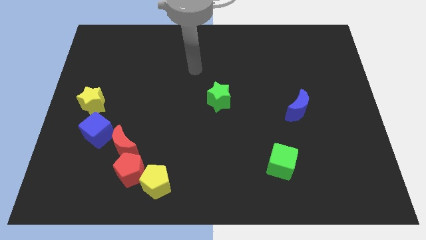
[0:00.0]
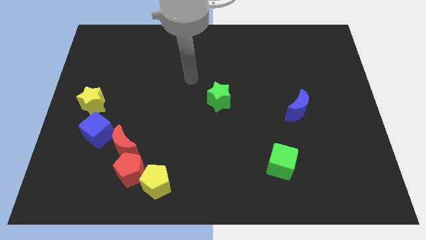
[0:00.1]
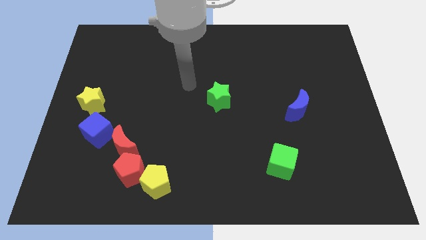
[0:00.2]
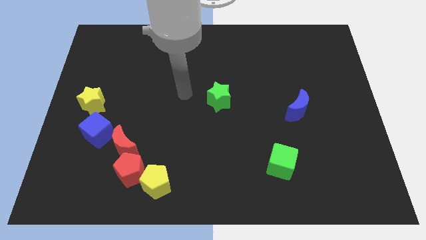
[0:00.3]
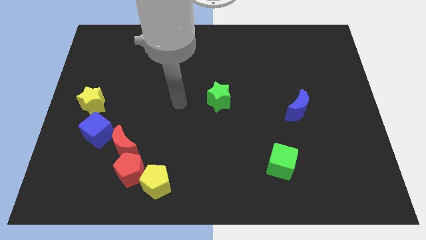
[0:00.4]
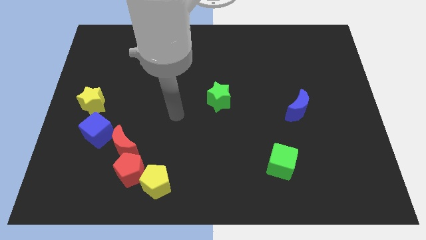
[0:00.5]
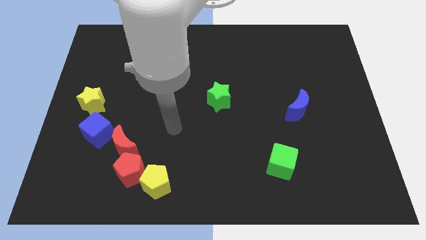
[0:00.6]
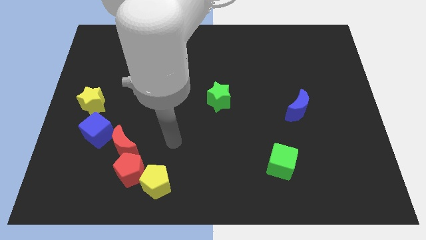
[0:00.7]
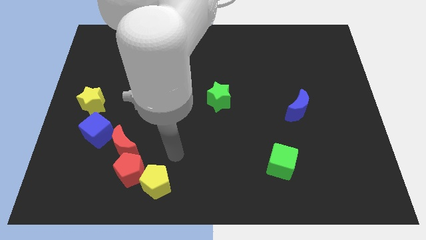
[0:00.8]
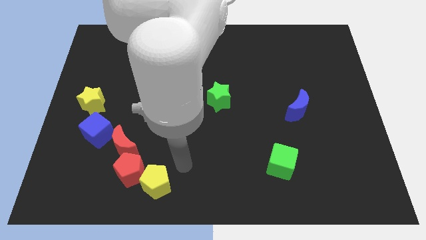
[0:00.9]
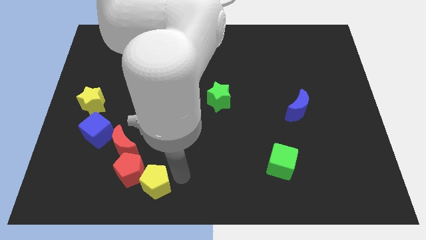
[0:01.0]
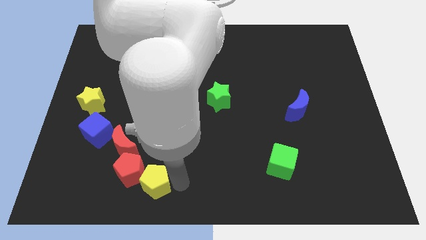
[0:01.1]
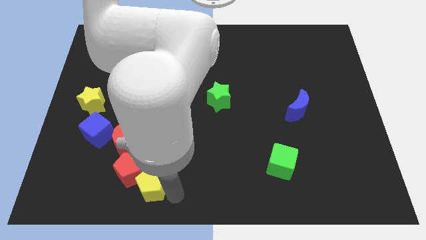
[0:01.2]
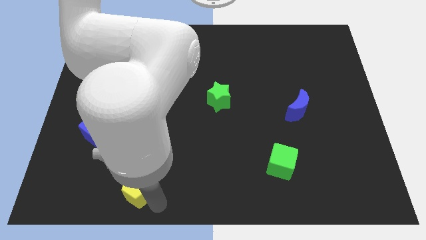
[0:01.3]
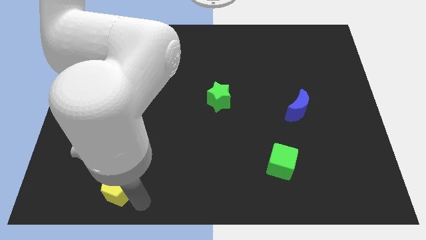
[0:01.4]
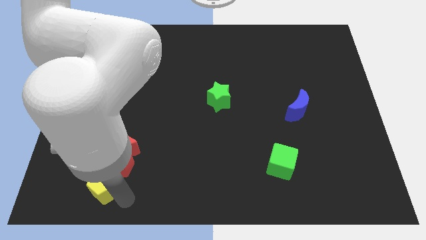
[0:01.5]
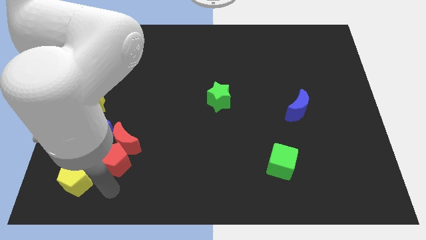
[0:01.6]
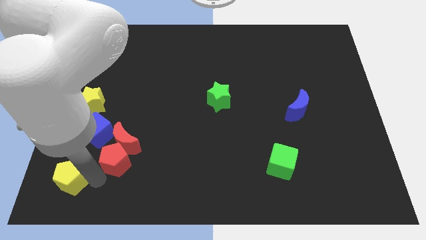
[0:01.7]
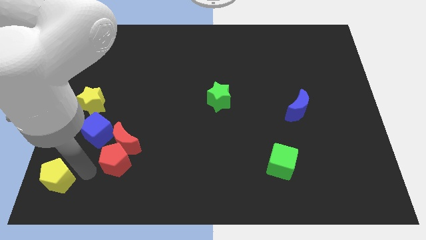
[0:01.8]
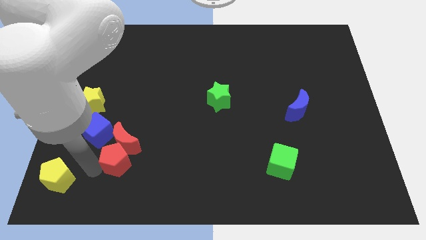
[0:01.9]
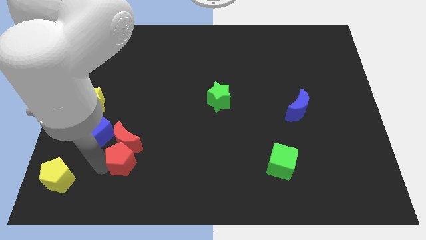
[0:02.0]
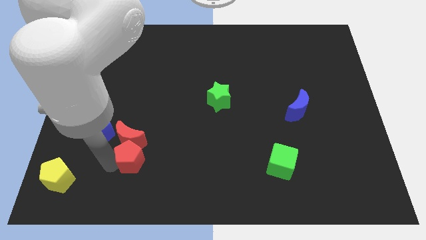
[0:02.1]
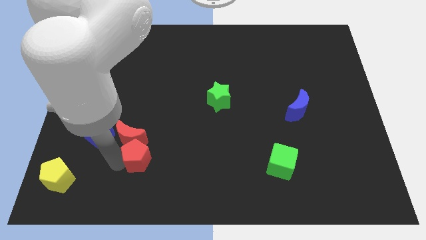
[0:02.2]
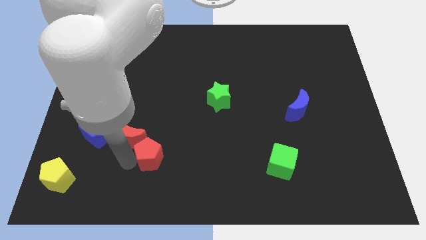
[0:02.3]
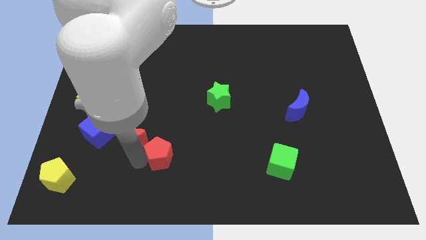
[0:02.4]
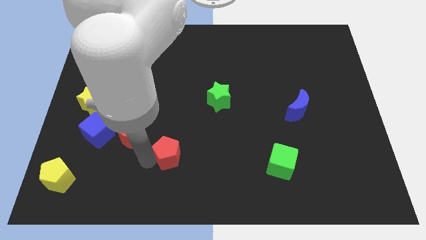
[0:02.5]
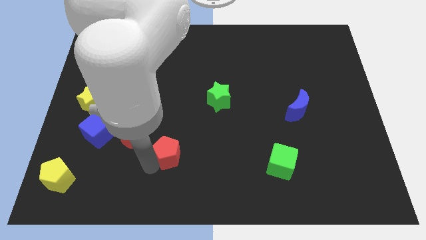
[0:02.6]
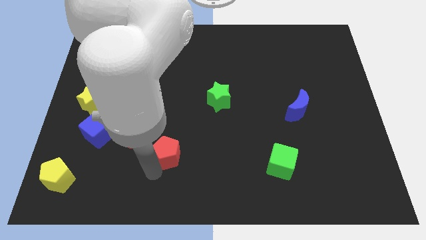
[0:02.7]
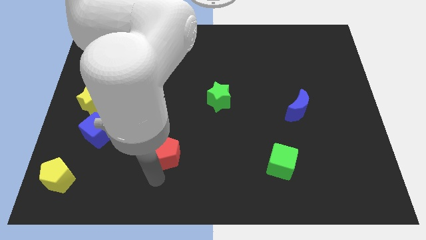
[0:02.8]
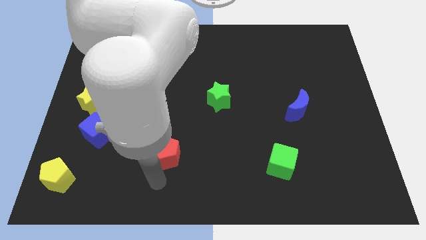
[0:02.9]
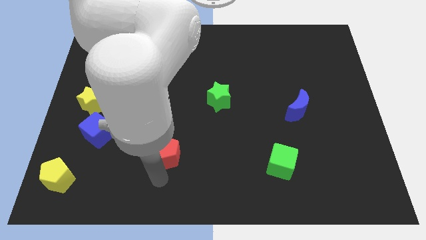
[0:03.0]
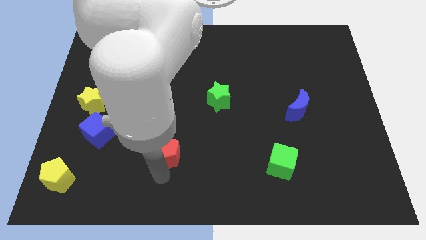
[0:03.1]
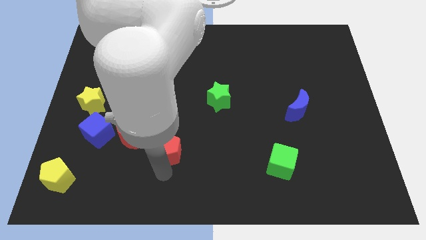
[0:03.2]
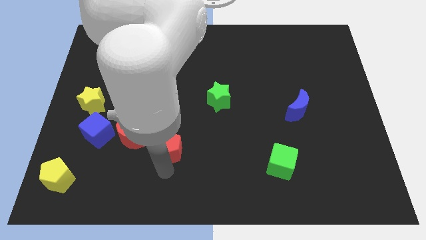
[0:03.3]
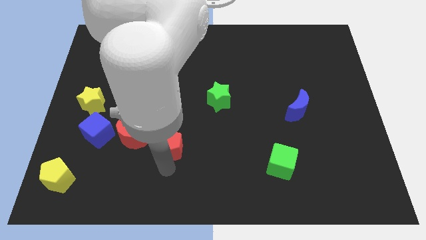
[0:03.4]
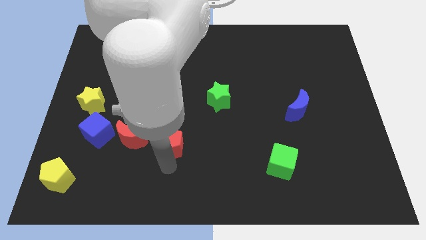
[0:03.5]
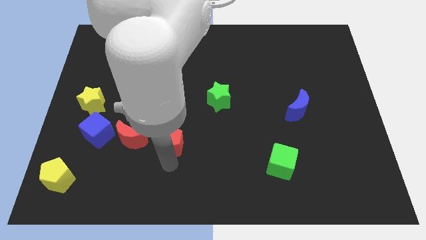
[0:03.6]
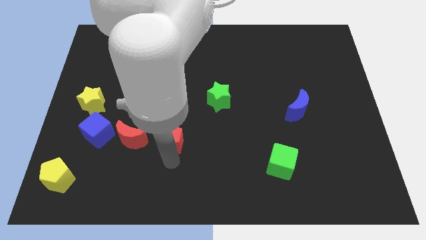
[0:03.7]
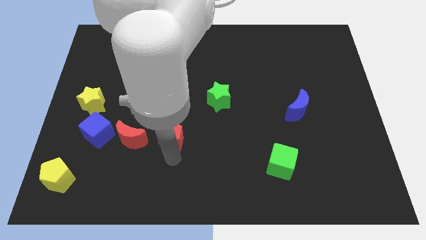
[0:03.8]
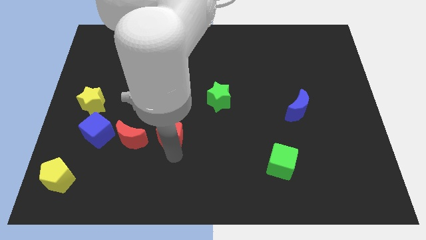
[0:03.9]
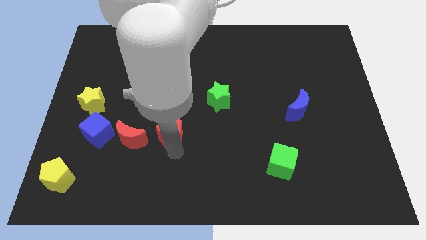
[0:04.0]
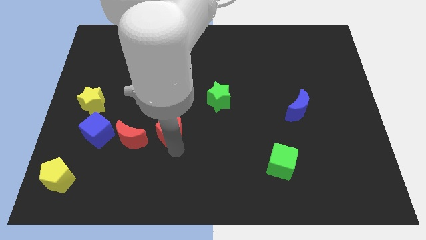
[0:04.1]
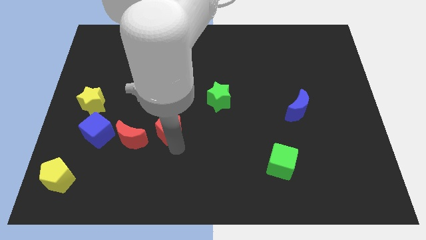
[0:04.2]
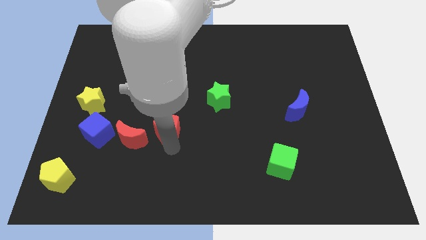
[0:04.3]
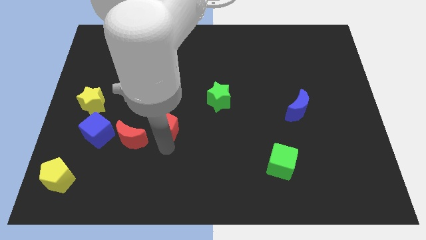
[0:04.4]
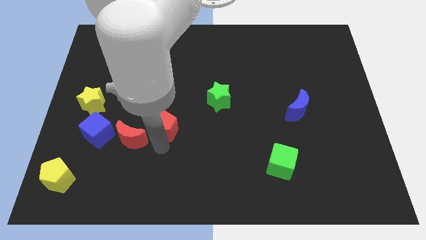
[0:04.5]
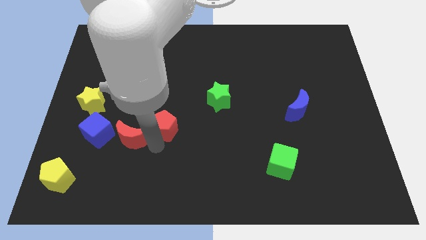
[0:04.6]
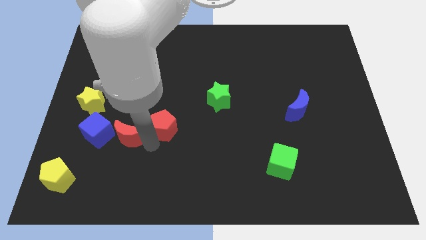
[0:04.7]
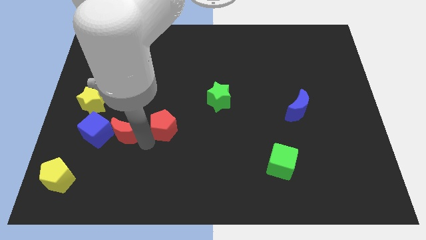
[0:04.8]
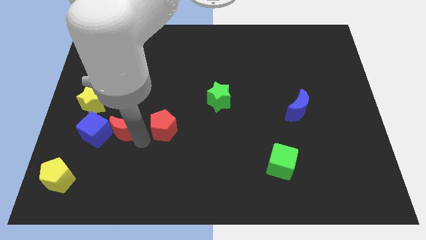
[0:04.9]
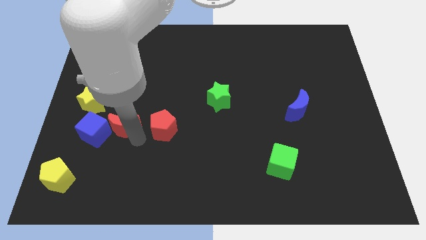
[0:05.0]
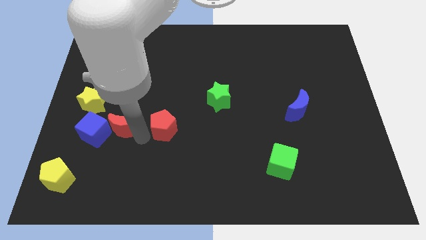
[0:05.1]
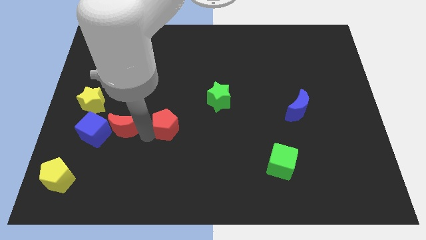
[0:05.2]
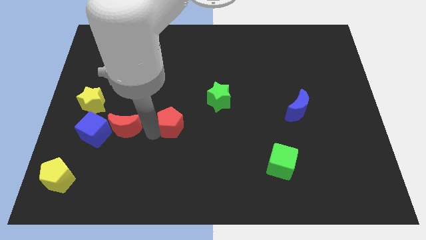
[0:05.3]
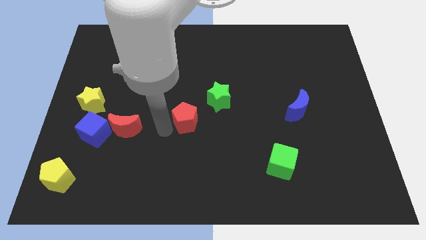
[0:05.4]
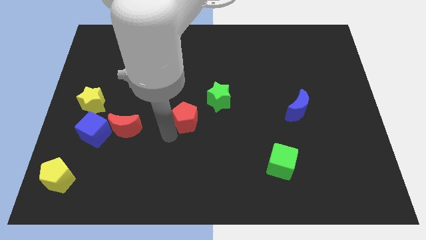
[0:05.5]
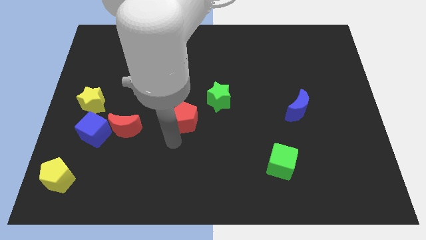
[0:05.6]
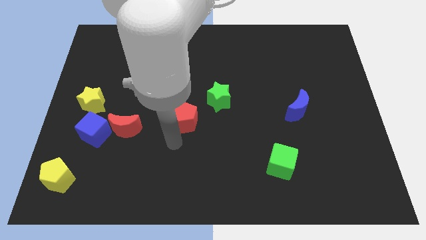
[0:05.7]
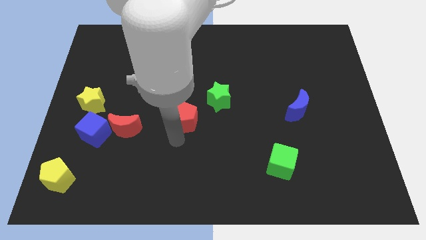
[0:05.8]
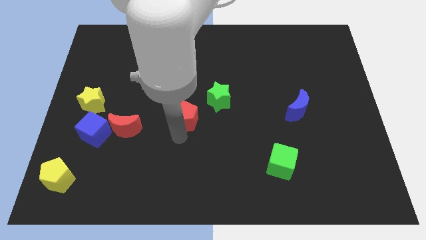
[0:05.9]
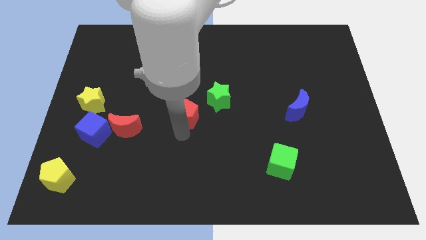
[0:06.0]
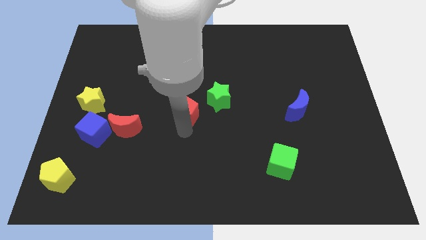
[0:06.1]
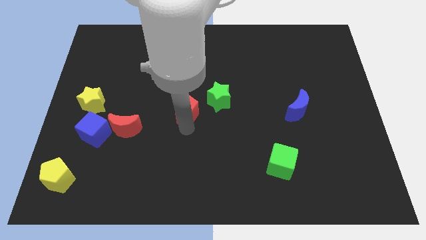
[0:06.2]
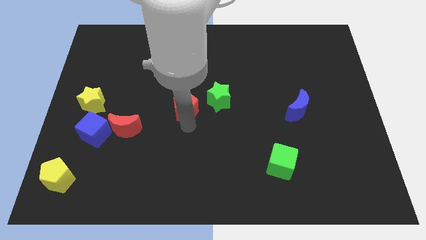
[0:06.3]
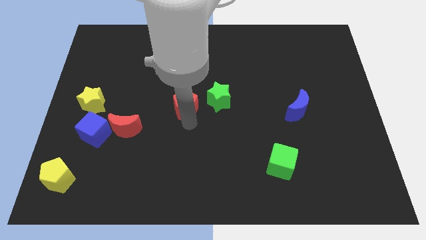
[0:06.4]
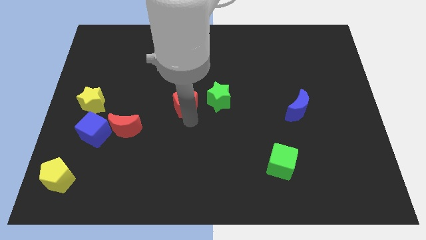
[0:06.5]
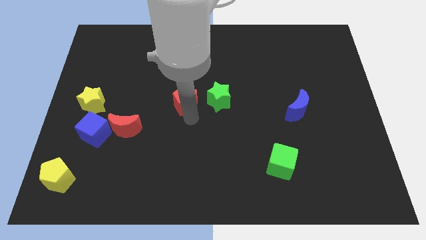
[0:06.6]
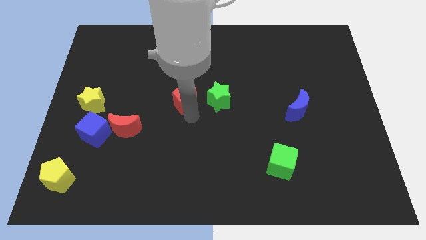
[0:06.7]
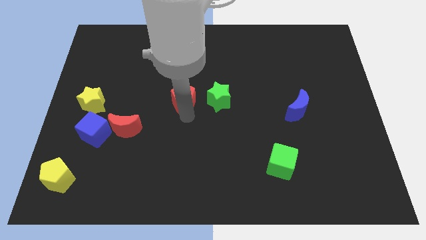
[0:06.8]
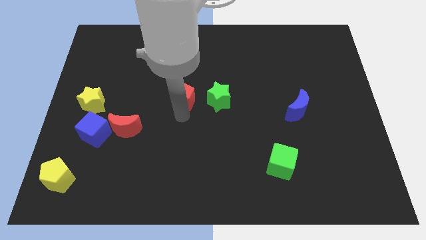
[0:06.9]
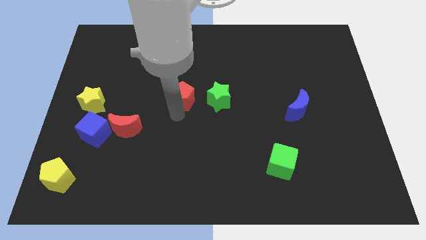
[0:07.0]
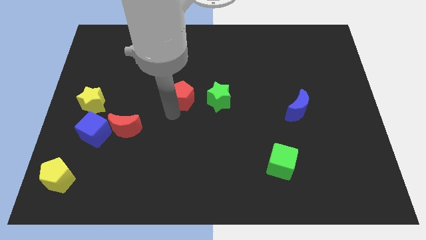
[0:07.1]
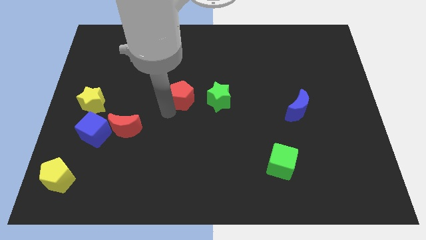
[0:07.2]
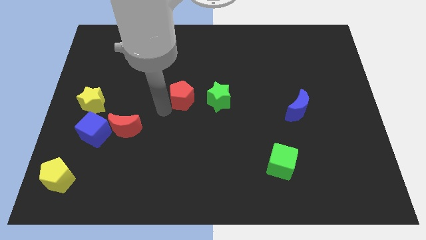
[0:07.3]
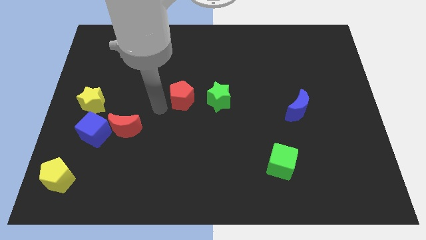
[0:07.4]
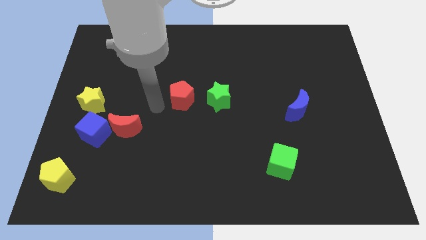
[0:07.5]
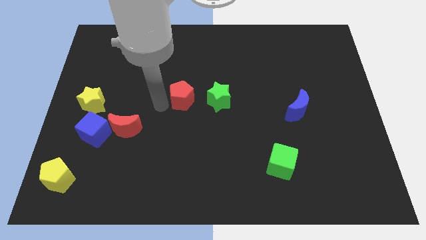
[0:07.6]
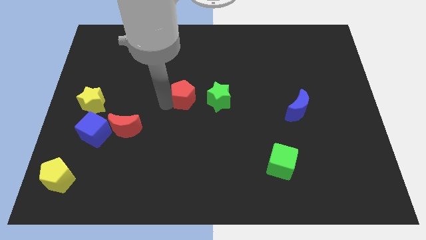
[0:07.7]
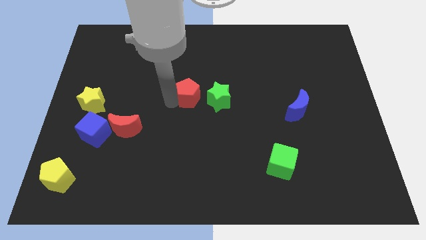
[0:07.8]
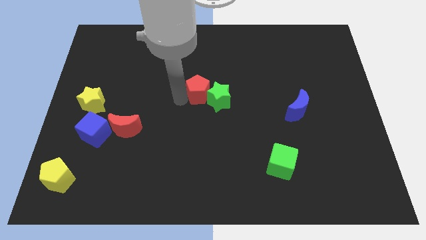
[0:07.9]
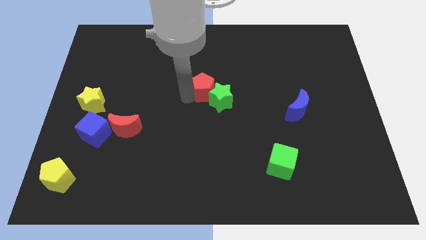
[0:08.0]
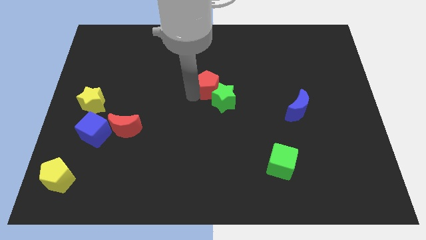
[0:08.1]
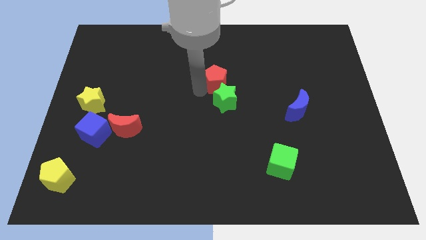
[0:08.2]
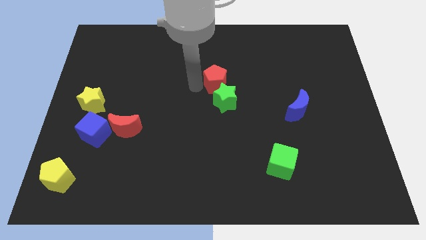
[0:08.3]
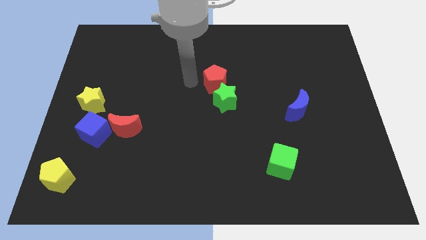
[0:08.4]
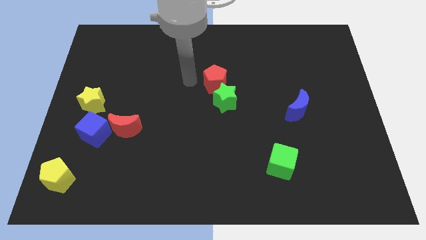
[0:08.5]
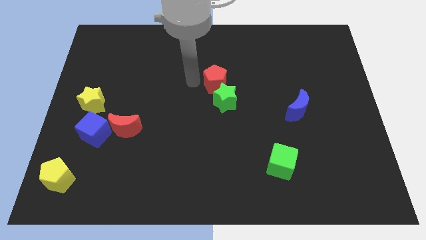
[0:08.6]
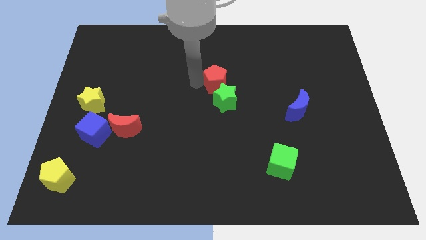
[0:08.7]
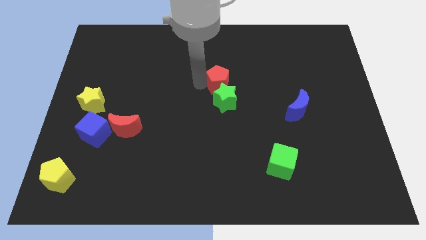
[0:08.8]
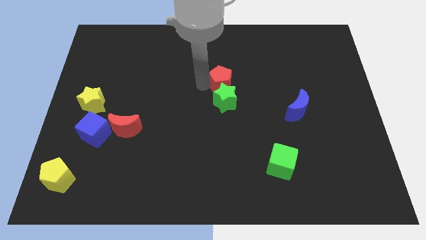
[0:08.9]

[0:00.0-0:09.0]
push the red pentagon to the top right side of the green star
